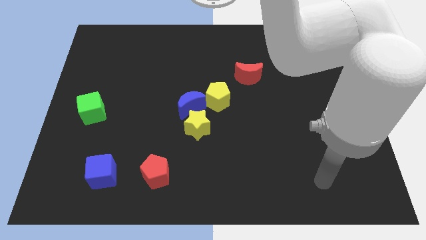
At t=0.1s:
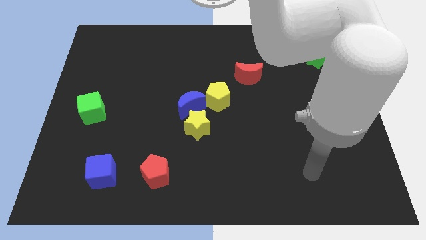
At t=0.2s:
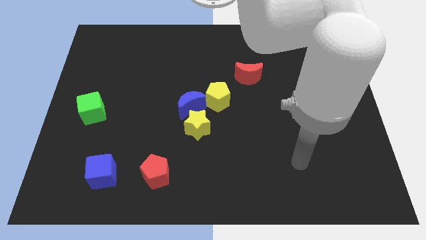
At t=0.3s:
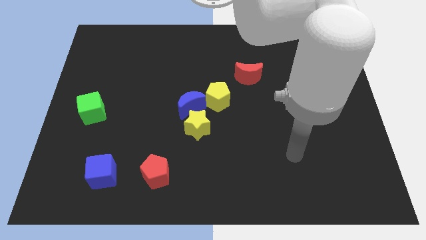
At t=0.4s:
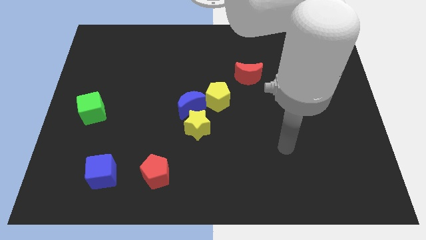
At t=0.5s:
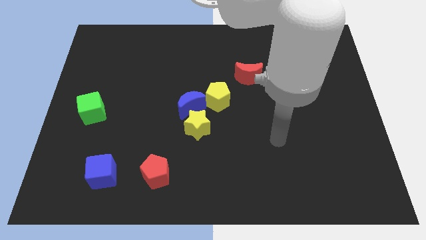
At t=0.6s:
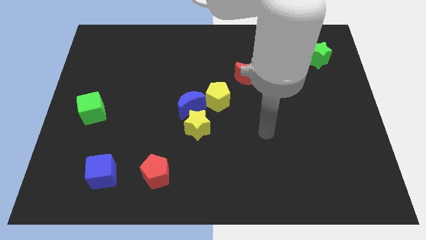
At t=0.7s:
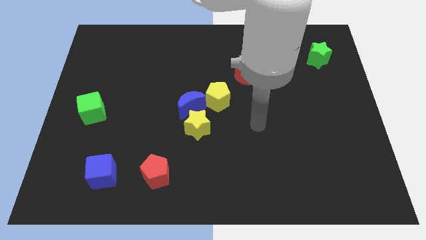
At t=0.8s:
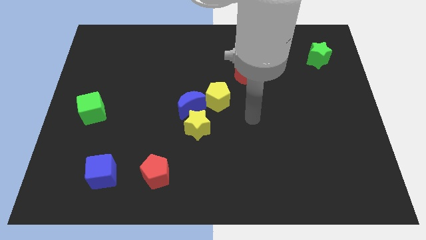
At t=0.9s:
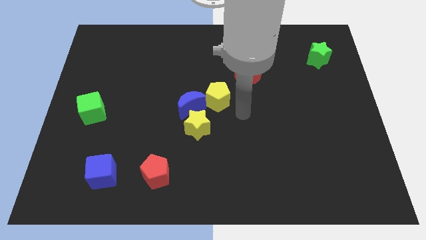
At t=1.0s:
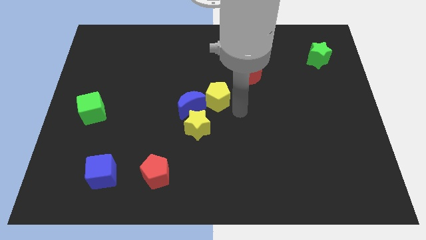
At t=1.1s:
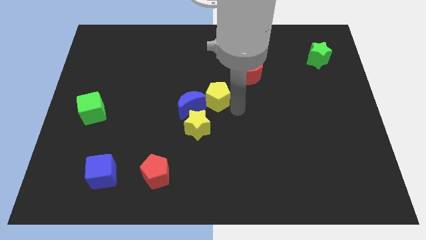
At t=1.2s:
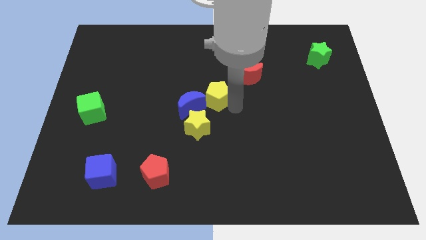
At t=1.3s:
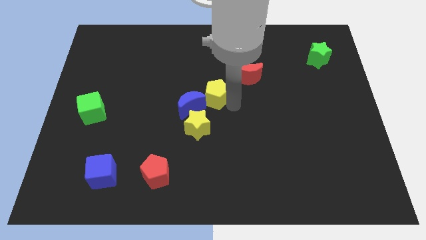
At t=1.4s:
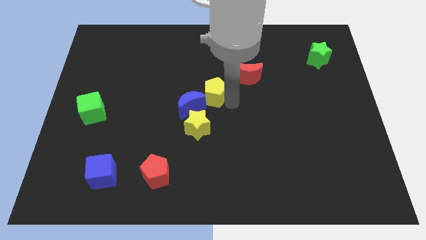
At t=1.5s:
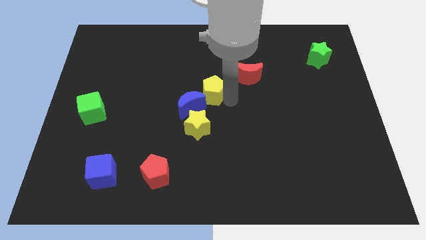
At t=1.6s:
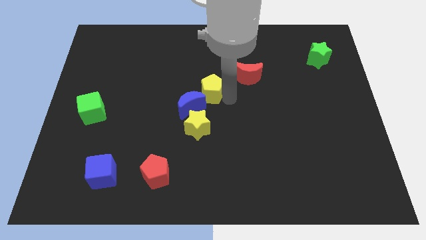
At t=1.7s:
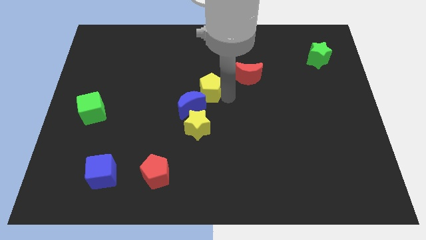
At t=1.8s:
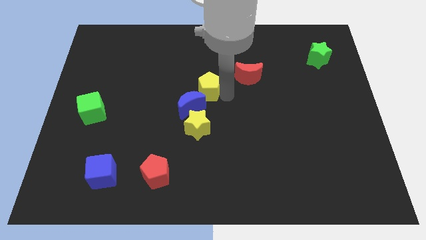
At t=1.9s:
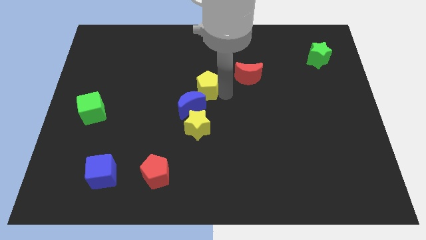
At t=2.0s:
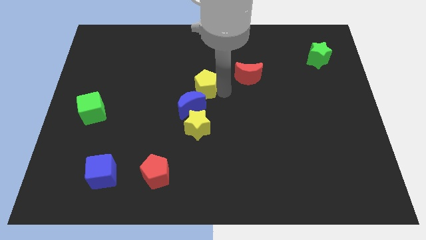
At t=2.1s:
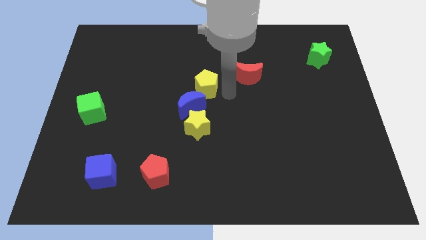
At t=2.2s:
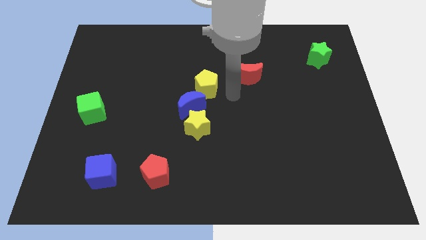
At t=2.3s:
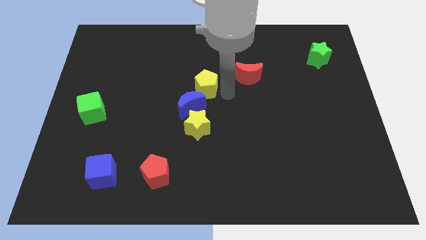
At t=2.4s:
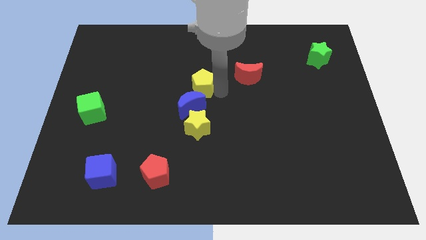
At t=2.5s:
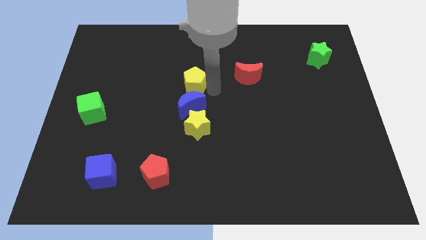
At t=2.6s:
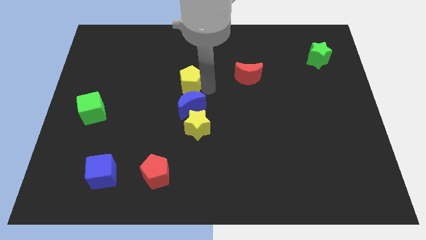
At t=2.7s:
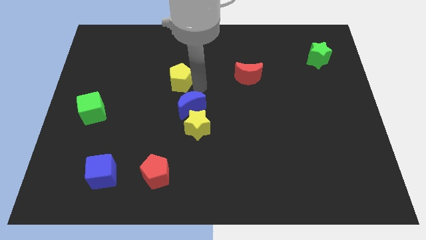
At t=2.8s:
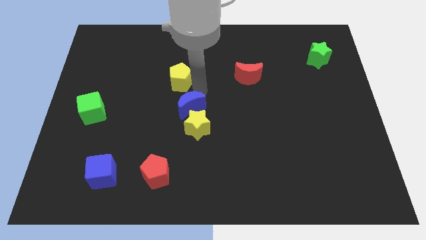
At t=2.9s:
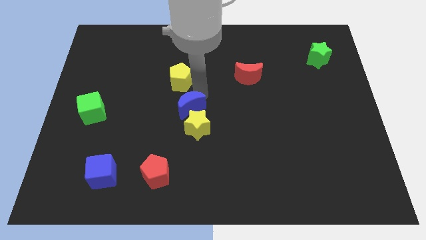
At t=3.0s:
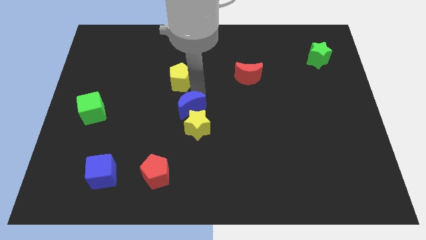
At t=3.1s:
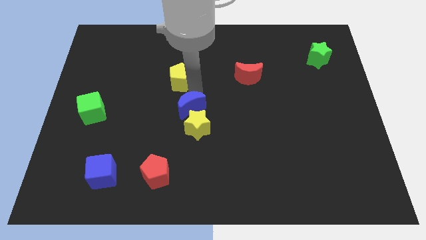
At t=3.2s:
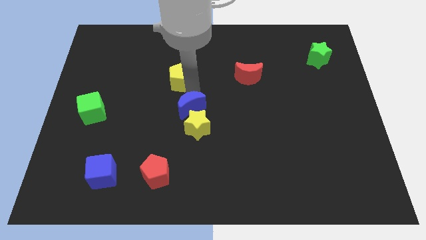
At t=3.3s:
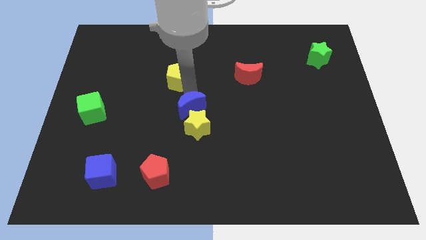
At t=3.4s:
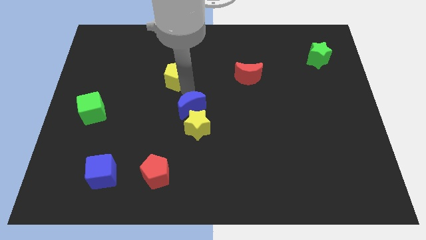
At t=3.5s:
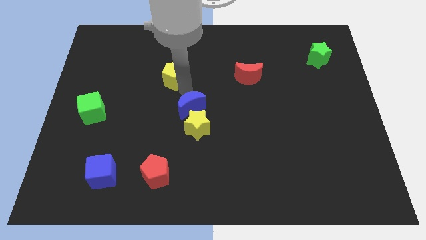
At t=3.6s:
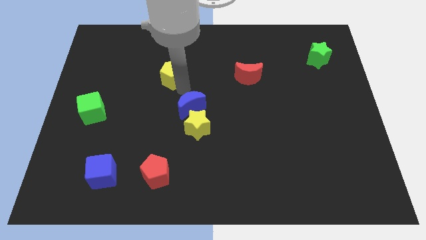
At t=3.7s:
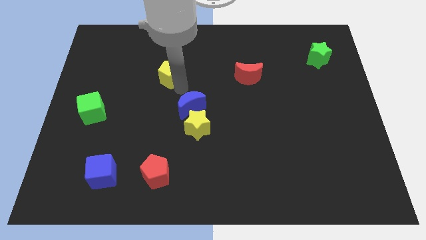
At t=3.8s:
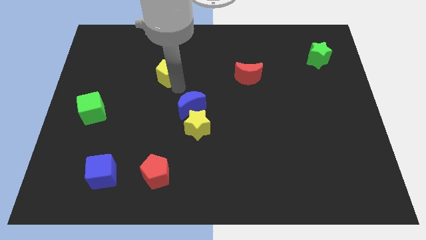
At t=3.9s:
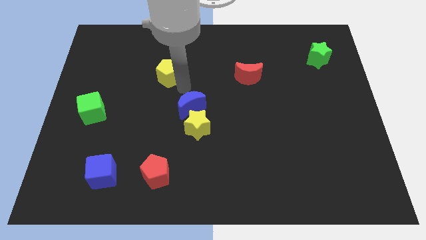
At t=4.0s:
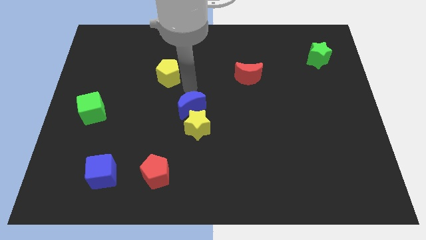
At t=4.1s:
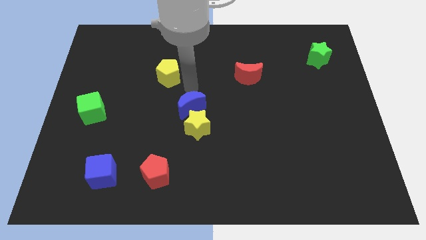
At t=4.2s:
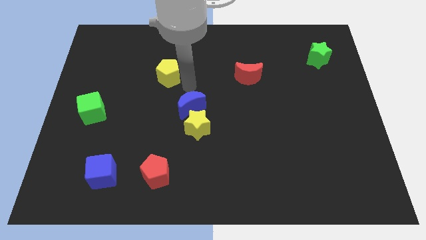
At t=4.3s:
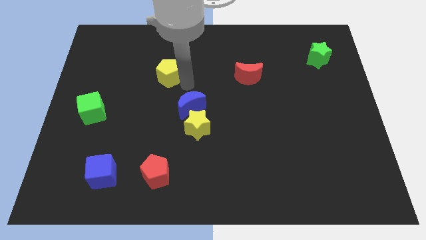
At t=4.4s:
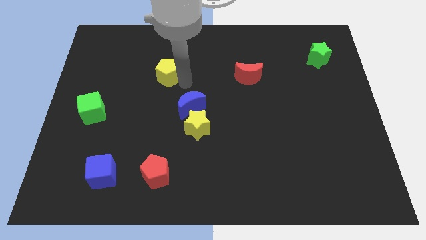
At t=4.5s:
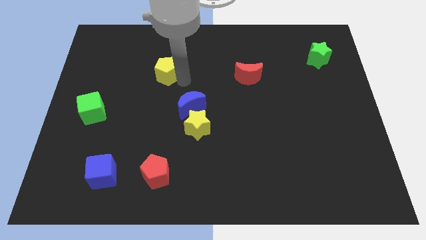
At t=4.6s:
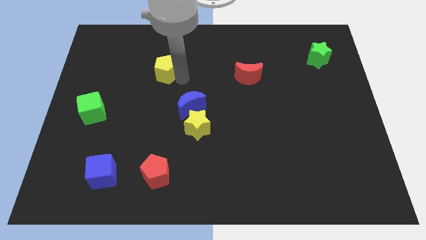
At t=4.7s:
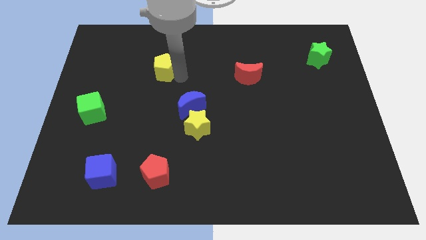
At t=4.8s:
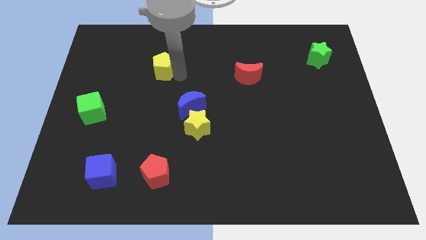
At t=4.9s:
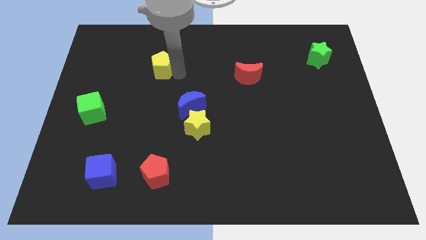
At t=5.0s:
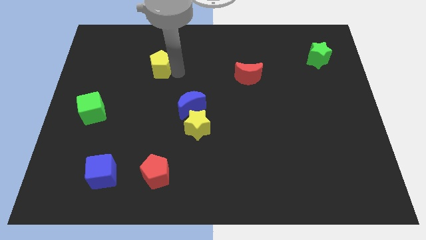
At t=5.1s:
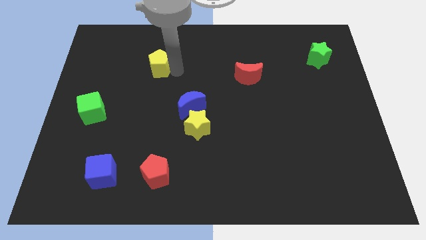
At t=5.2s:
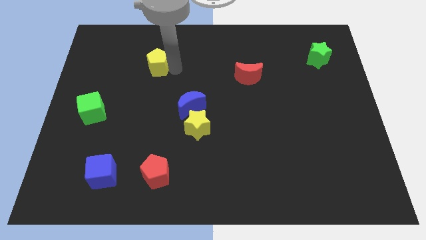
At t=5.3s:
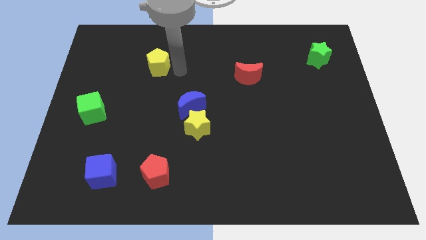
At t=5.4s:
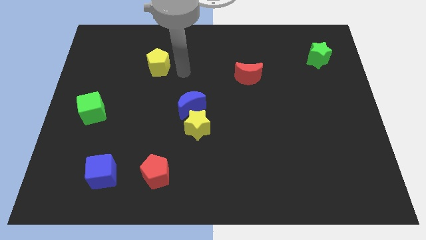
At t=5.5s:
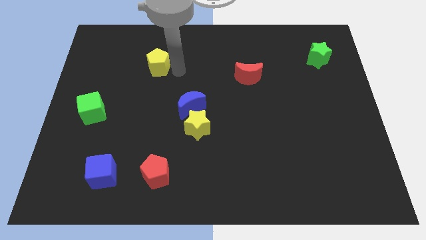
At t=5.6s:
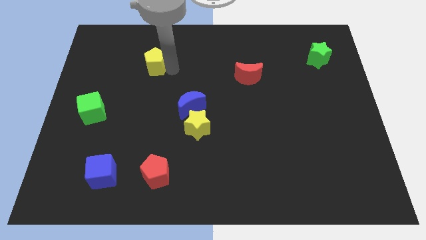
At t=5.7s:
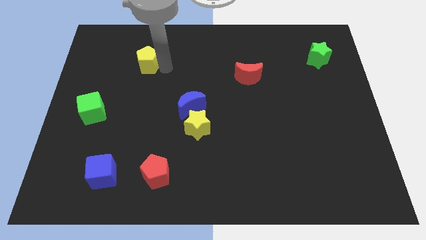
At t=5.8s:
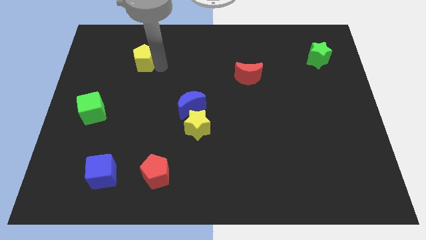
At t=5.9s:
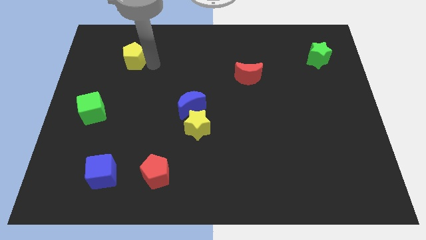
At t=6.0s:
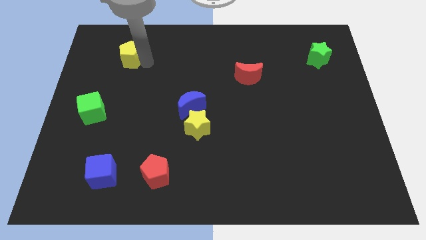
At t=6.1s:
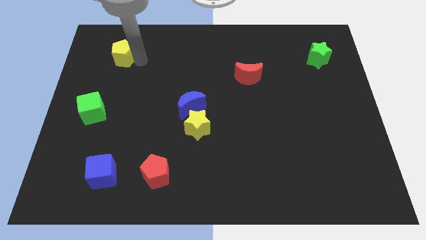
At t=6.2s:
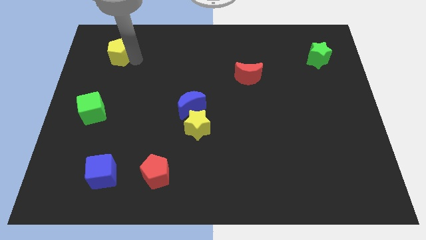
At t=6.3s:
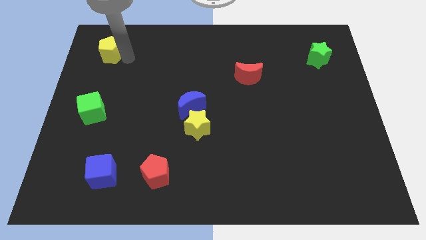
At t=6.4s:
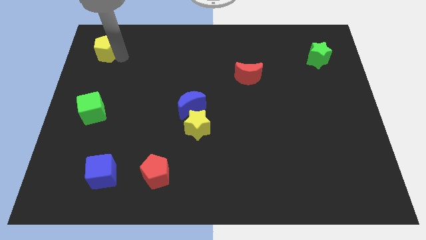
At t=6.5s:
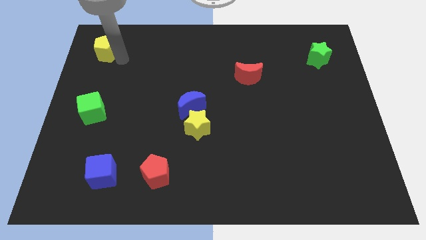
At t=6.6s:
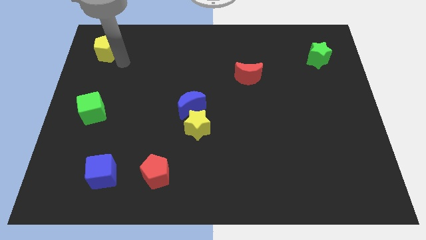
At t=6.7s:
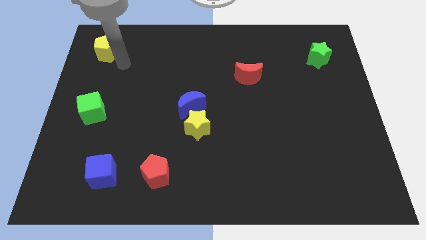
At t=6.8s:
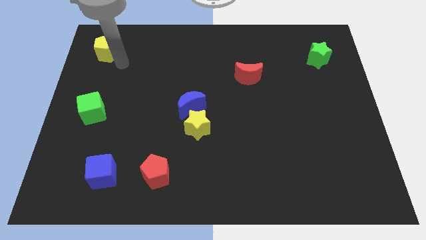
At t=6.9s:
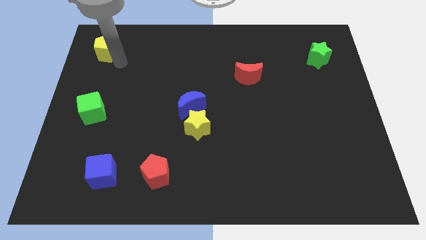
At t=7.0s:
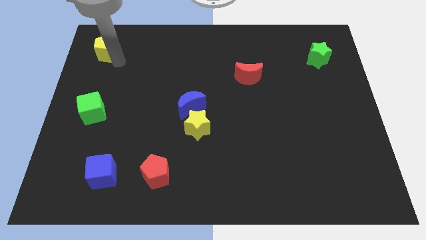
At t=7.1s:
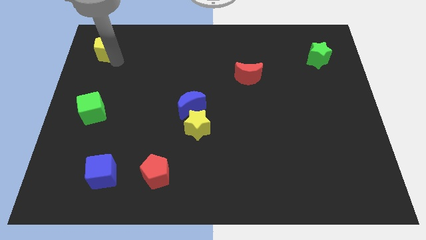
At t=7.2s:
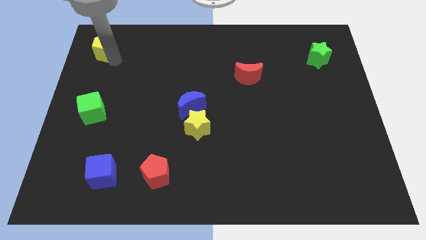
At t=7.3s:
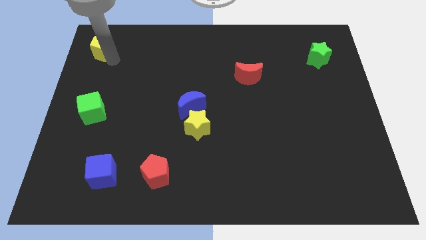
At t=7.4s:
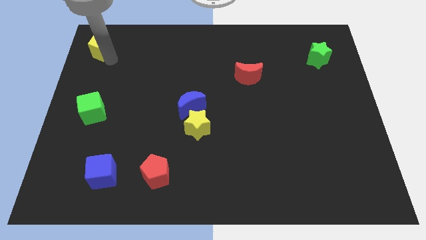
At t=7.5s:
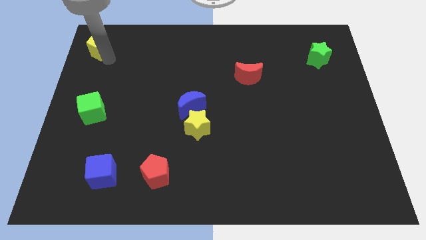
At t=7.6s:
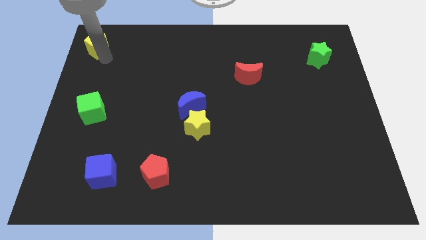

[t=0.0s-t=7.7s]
move the yellow pentagon to the top left
